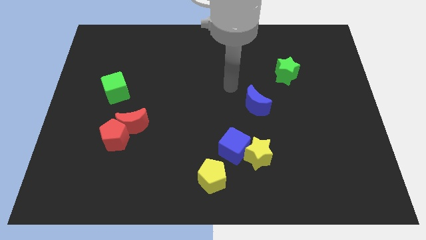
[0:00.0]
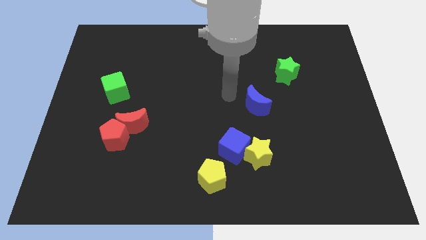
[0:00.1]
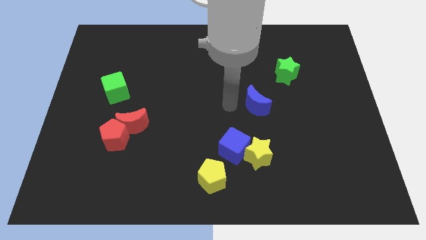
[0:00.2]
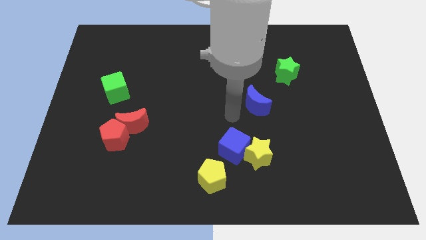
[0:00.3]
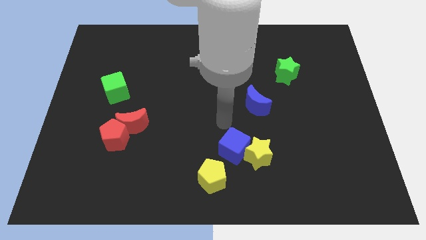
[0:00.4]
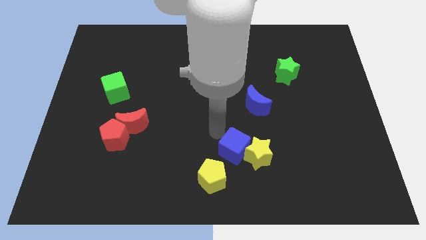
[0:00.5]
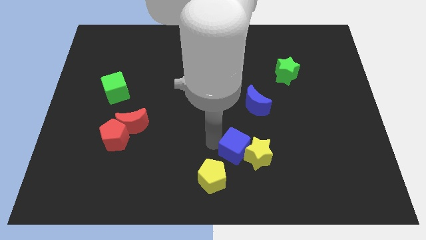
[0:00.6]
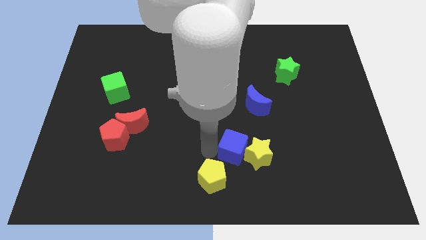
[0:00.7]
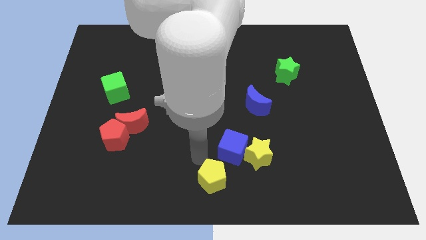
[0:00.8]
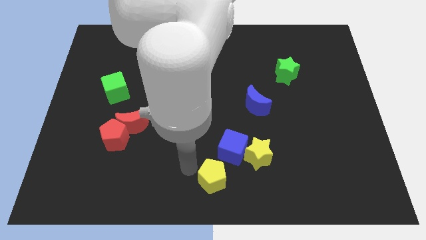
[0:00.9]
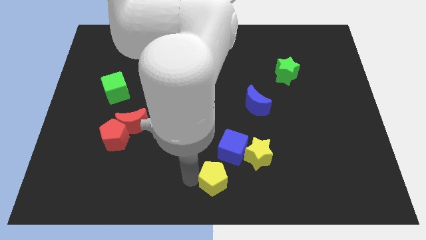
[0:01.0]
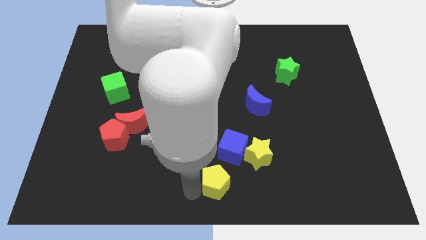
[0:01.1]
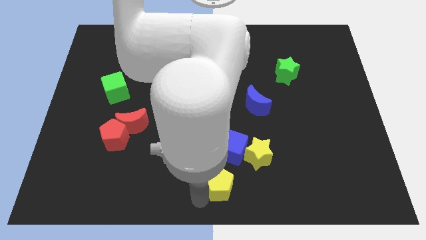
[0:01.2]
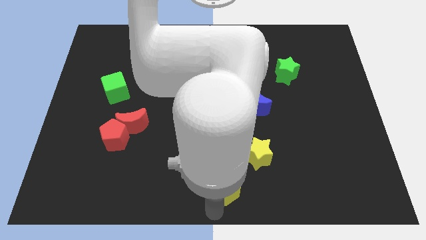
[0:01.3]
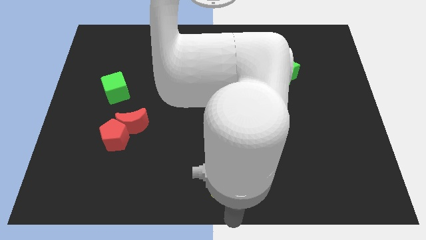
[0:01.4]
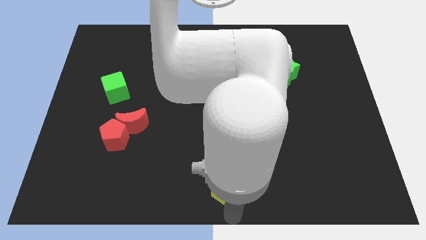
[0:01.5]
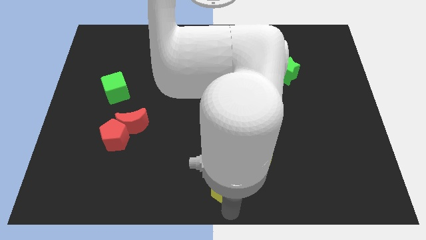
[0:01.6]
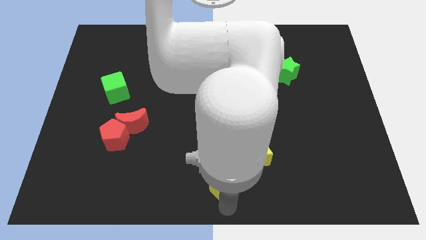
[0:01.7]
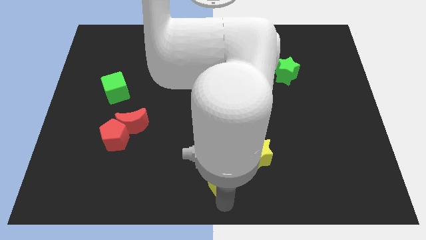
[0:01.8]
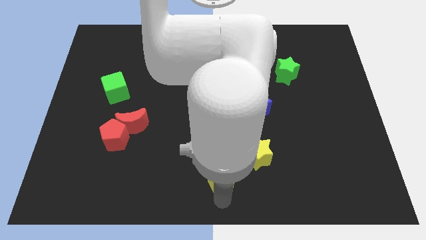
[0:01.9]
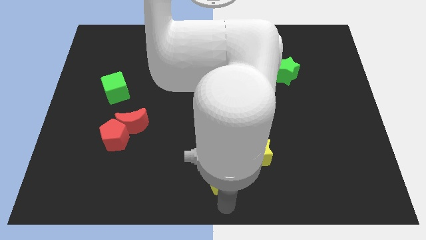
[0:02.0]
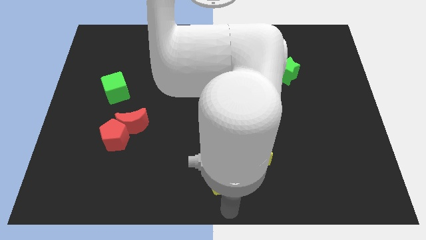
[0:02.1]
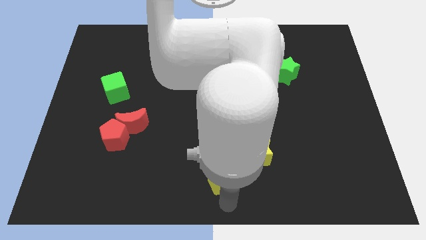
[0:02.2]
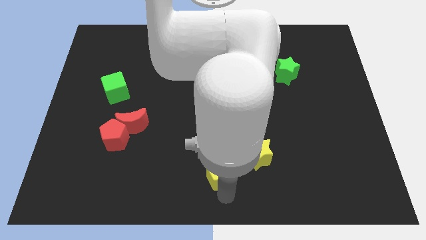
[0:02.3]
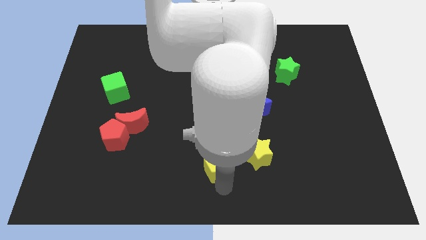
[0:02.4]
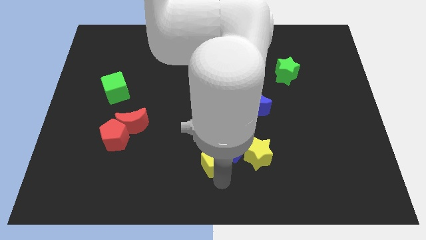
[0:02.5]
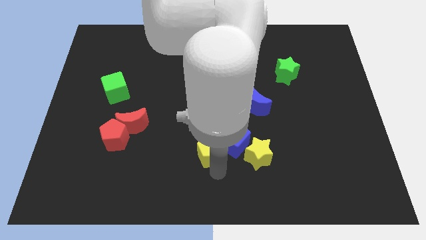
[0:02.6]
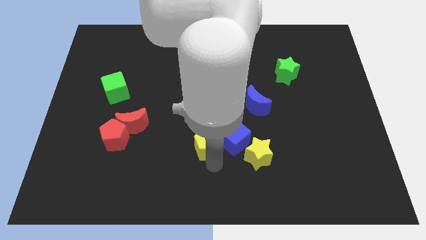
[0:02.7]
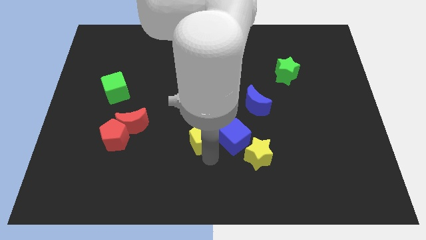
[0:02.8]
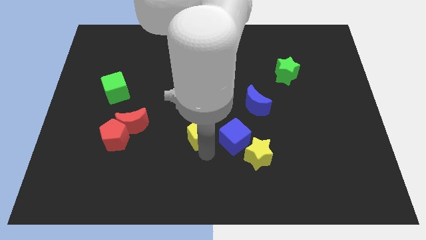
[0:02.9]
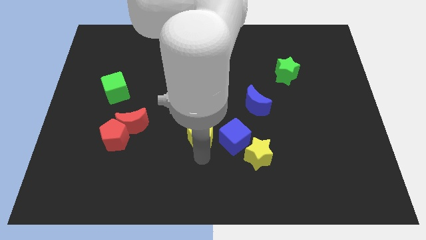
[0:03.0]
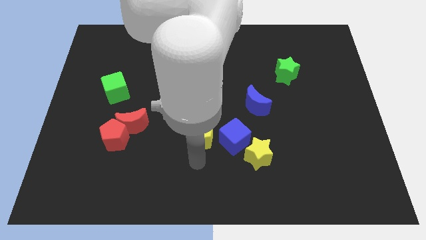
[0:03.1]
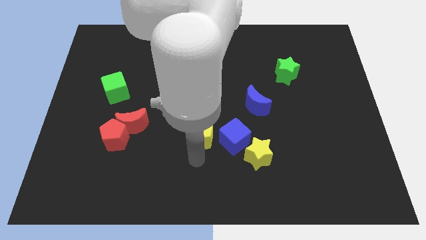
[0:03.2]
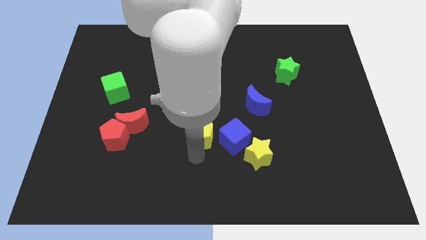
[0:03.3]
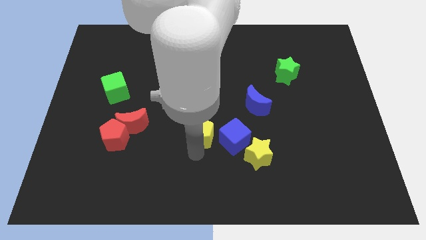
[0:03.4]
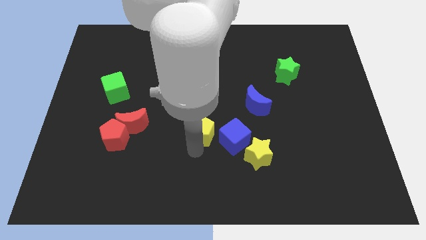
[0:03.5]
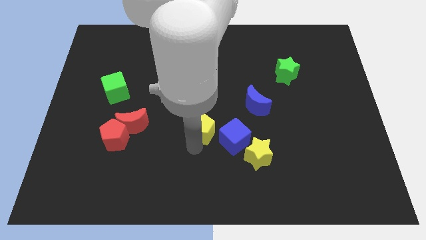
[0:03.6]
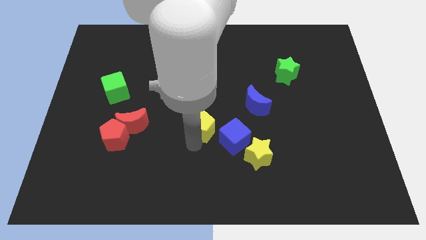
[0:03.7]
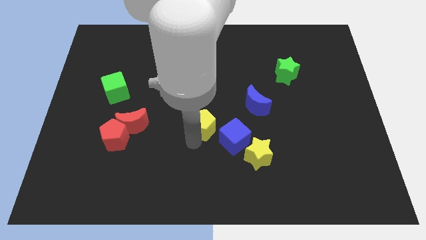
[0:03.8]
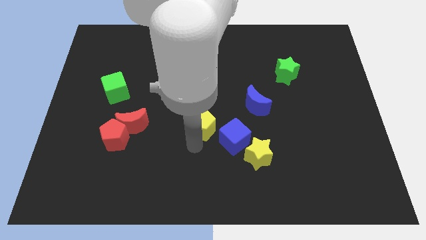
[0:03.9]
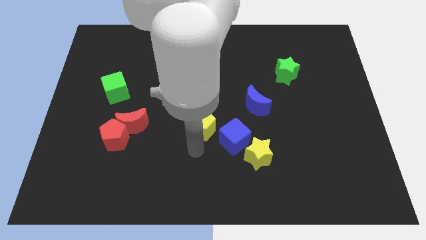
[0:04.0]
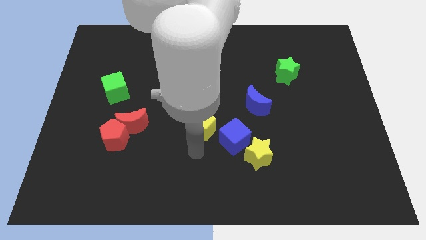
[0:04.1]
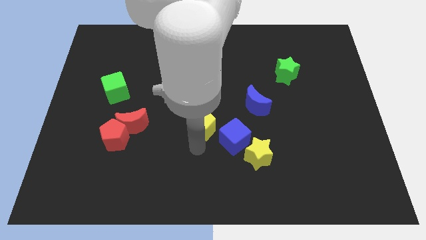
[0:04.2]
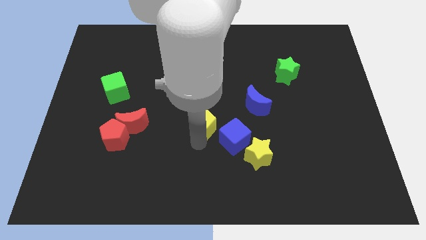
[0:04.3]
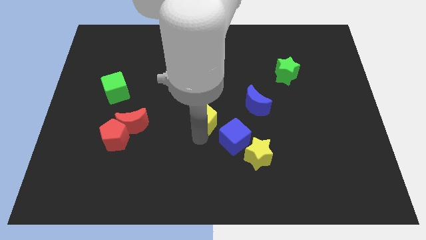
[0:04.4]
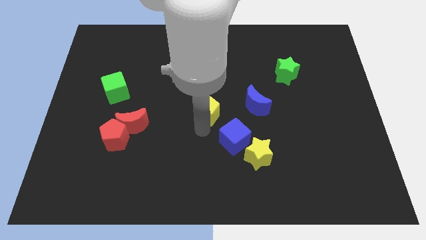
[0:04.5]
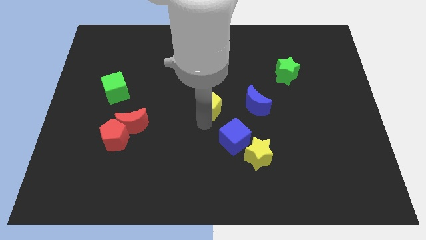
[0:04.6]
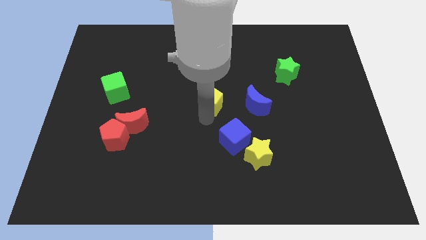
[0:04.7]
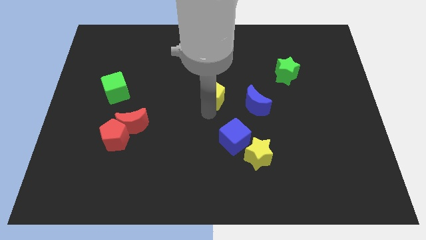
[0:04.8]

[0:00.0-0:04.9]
move the yellow pentagon up

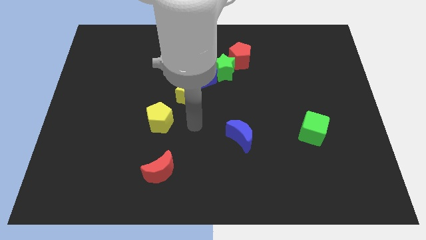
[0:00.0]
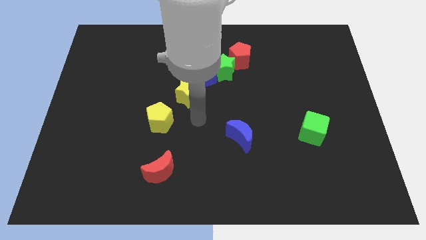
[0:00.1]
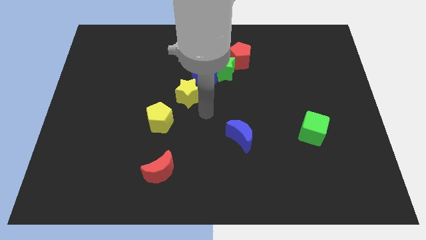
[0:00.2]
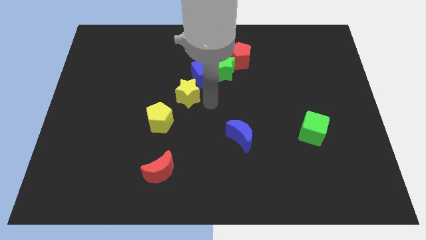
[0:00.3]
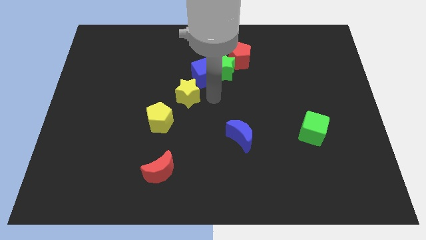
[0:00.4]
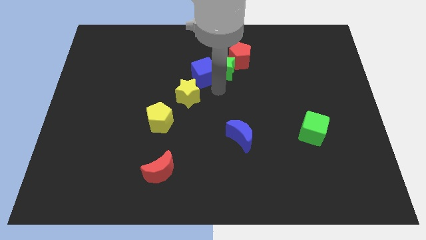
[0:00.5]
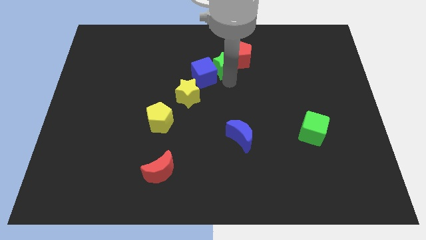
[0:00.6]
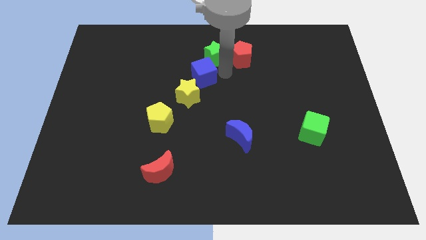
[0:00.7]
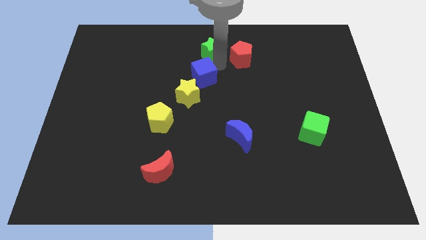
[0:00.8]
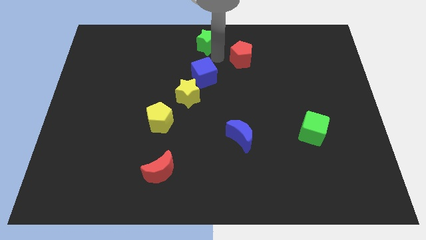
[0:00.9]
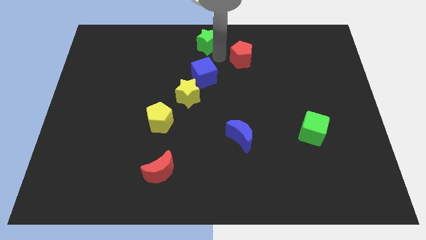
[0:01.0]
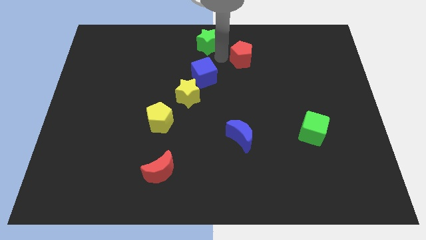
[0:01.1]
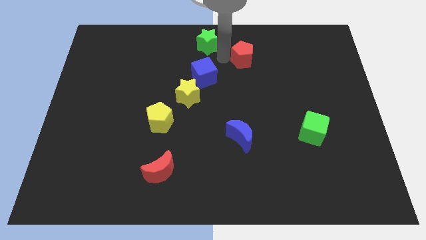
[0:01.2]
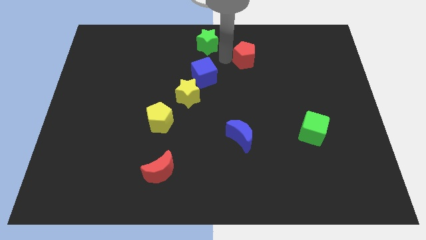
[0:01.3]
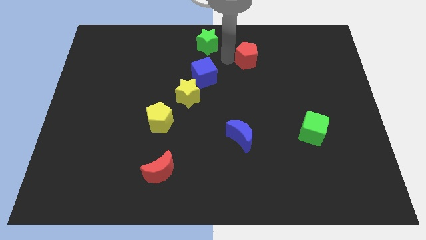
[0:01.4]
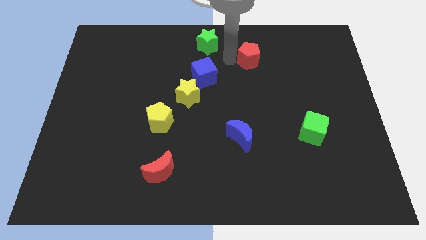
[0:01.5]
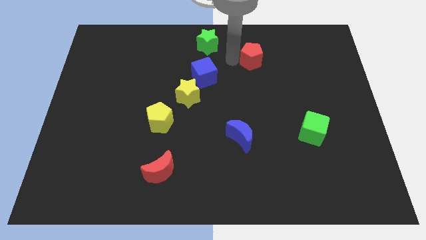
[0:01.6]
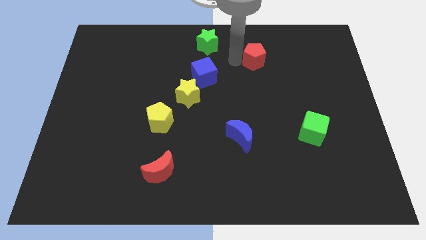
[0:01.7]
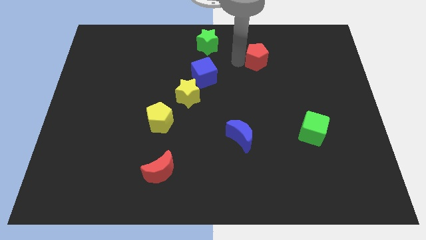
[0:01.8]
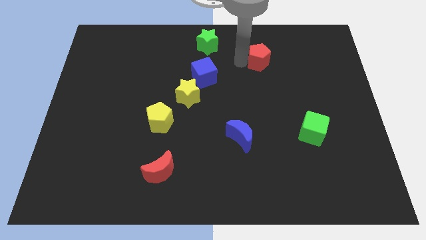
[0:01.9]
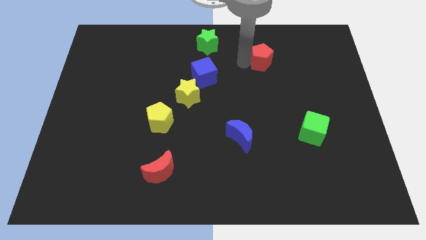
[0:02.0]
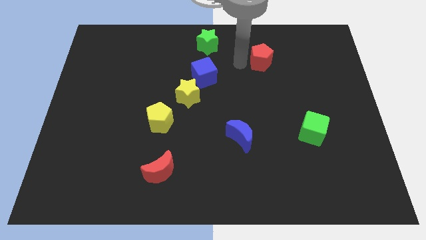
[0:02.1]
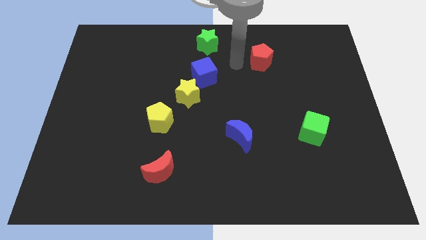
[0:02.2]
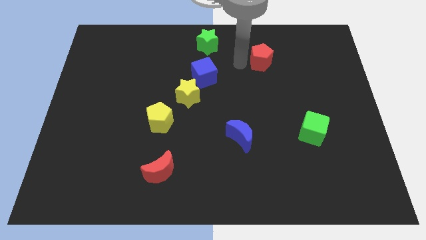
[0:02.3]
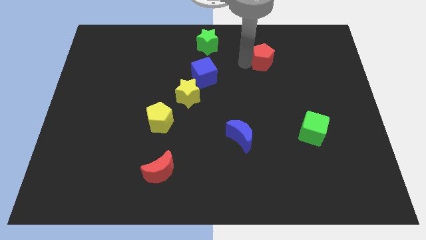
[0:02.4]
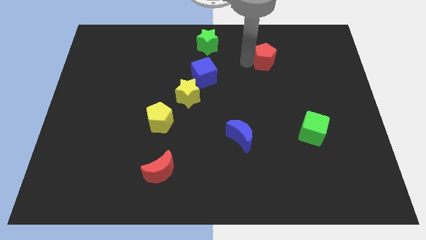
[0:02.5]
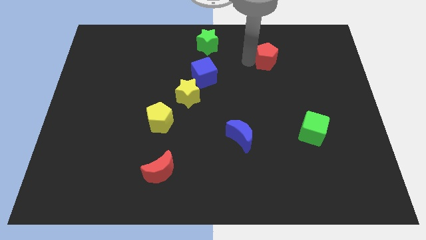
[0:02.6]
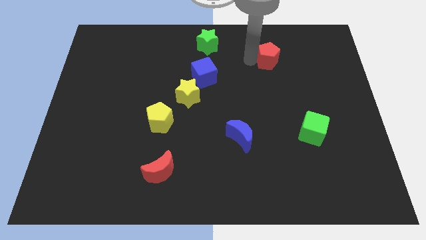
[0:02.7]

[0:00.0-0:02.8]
slide the red pentagon somewhat right

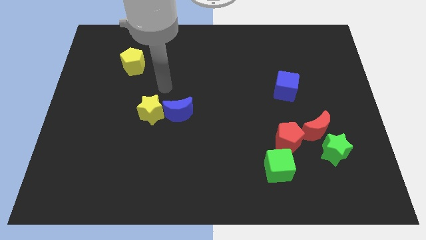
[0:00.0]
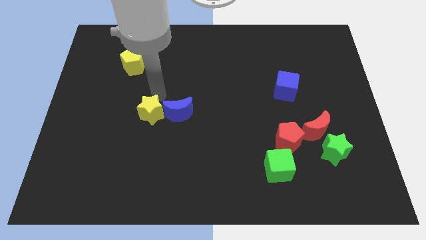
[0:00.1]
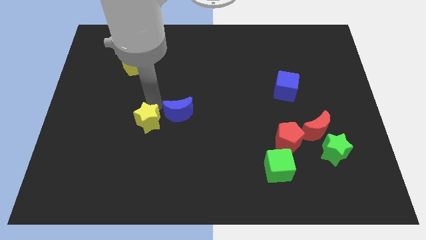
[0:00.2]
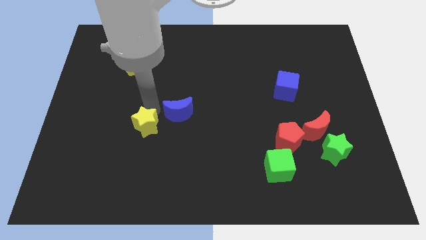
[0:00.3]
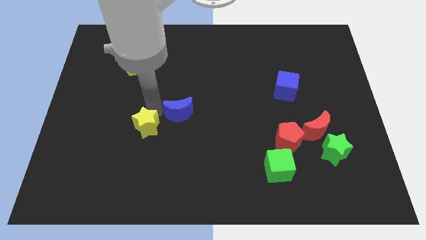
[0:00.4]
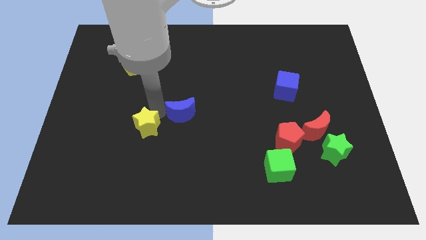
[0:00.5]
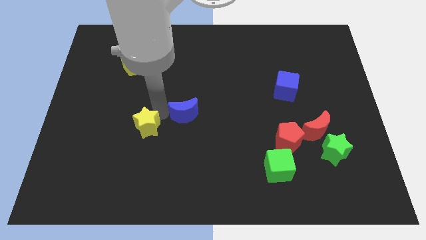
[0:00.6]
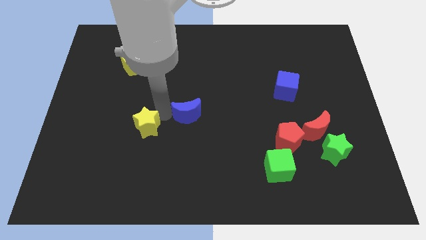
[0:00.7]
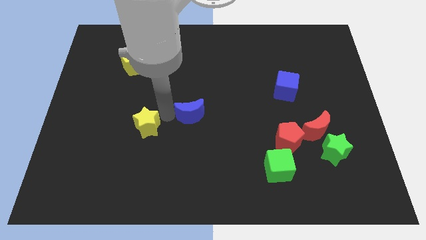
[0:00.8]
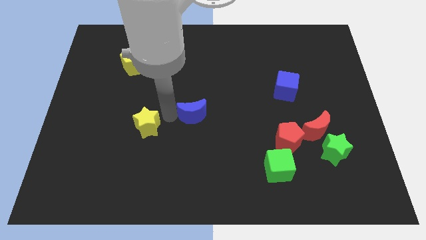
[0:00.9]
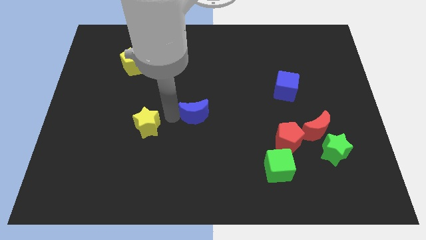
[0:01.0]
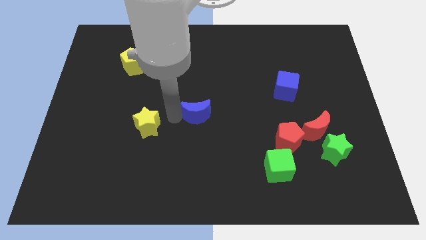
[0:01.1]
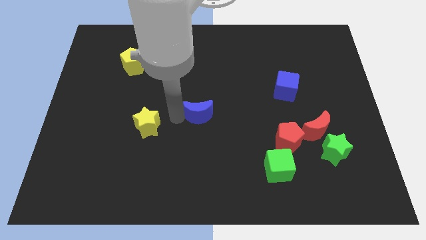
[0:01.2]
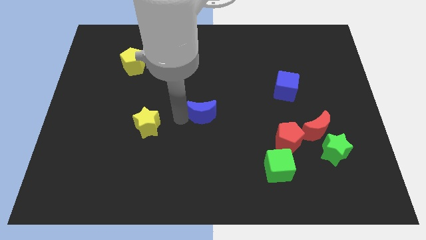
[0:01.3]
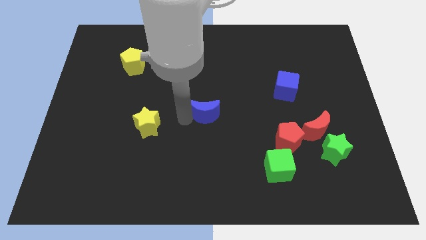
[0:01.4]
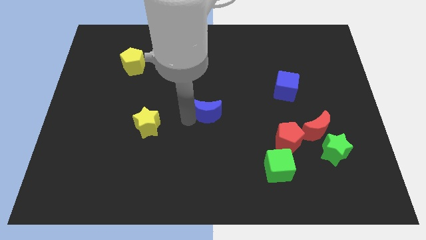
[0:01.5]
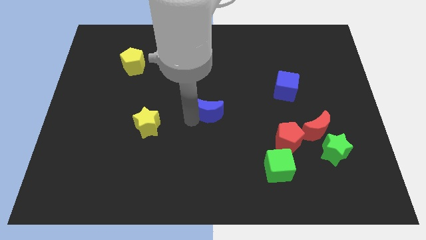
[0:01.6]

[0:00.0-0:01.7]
slide the blue moon a bit to the right
